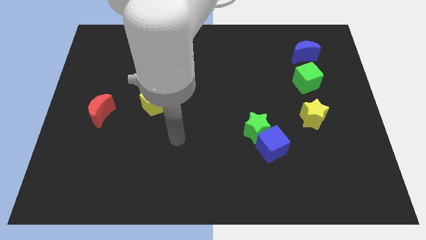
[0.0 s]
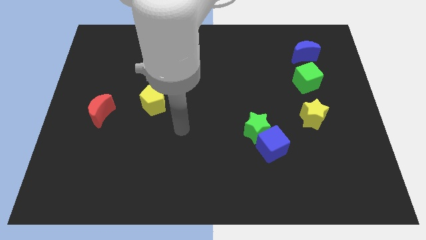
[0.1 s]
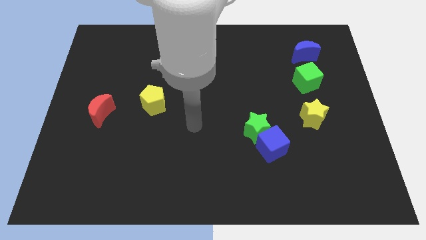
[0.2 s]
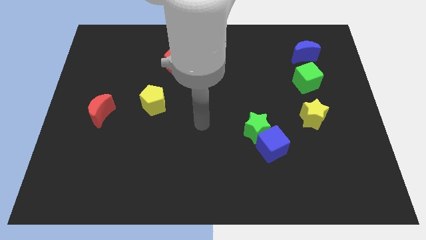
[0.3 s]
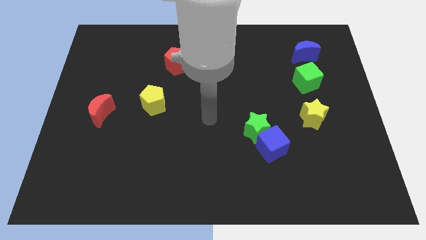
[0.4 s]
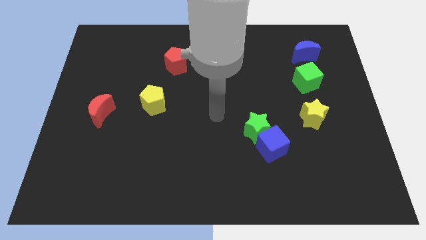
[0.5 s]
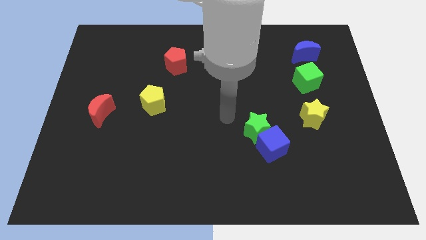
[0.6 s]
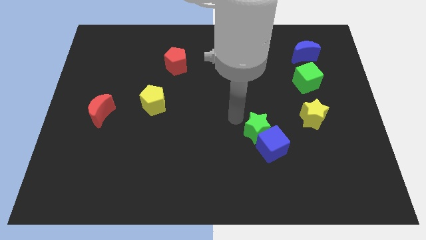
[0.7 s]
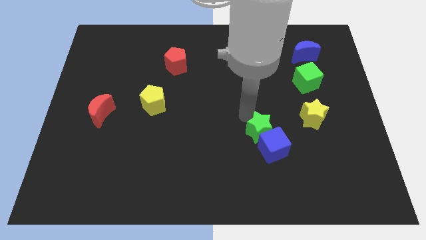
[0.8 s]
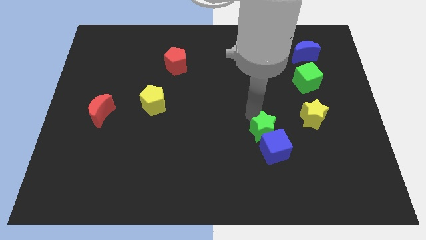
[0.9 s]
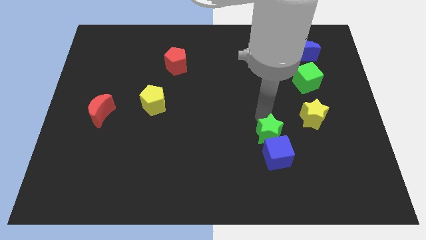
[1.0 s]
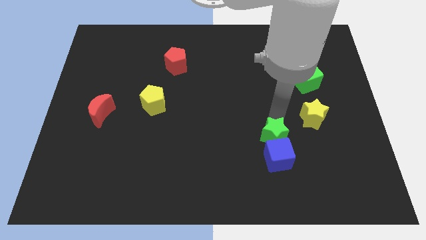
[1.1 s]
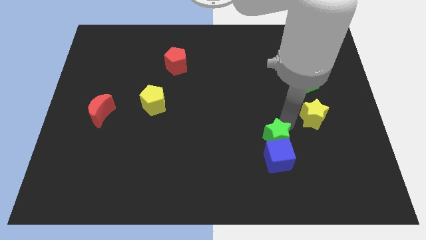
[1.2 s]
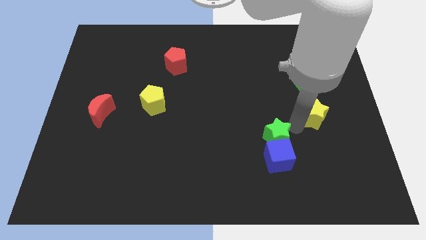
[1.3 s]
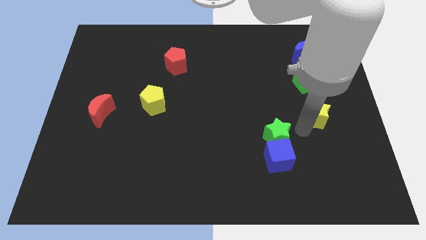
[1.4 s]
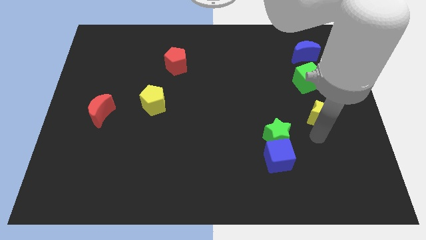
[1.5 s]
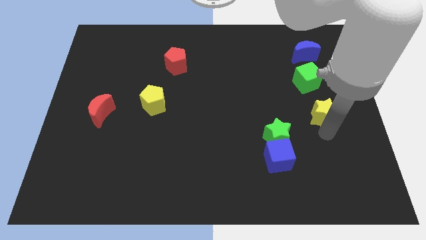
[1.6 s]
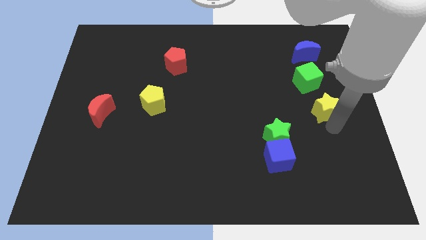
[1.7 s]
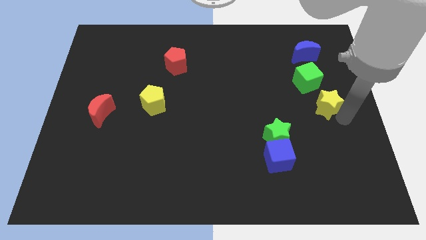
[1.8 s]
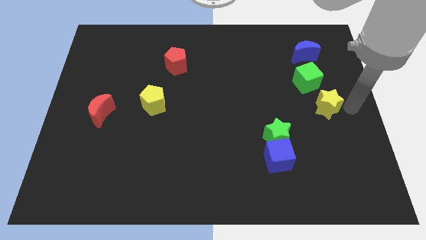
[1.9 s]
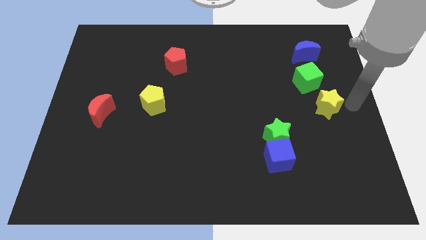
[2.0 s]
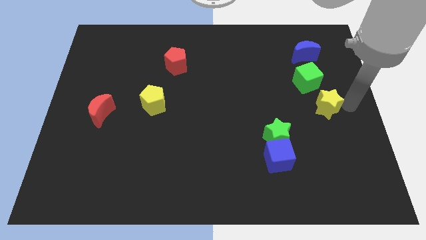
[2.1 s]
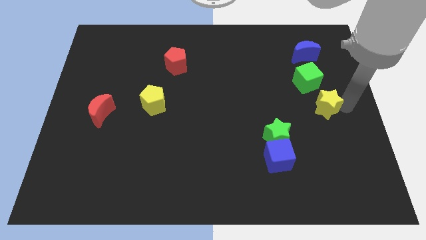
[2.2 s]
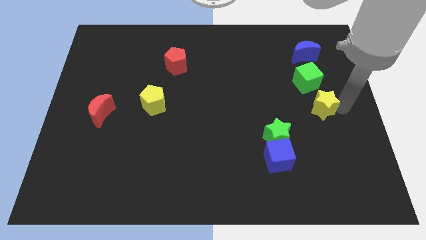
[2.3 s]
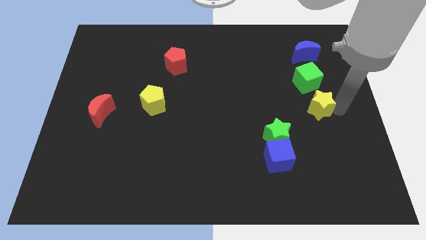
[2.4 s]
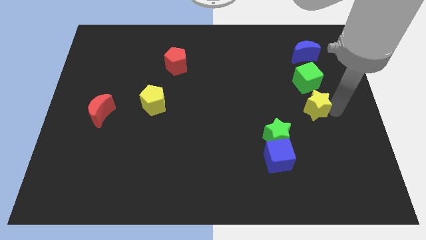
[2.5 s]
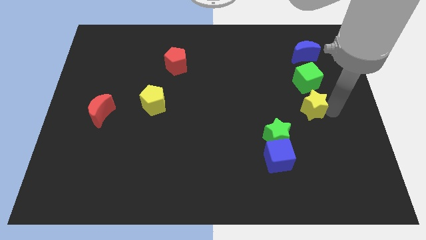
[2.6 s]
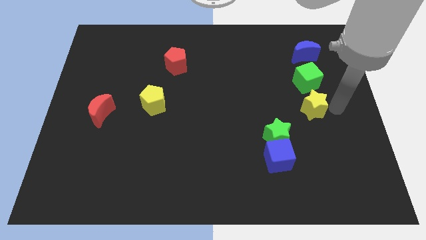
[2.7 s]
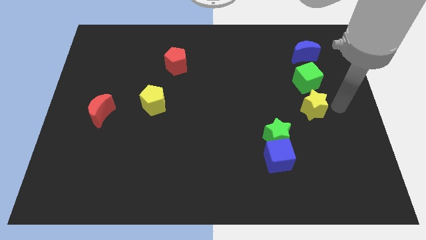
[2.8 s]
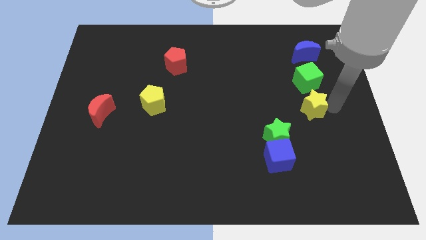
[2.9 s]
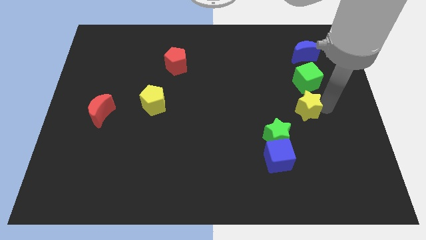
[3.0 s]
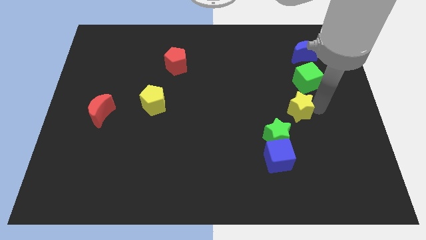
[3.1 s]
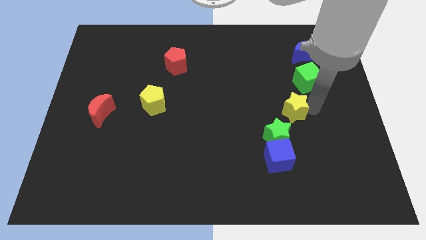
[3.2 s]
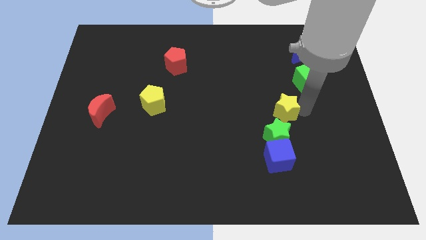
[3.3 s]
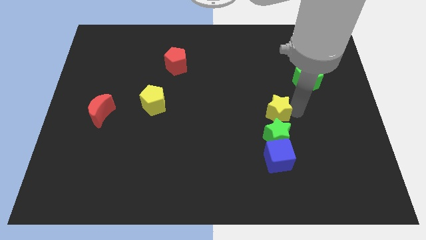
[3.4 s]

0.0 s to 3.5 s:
slightly move the yellow star to the left

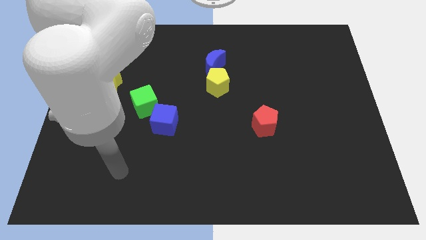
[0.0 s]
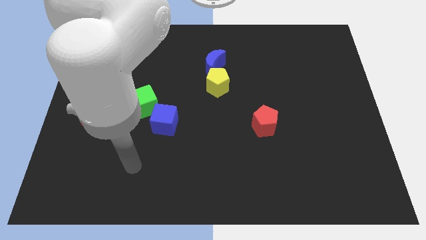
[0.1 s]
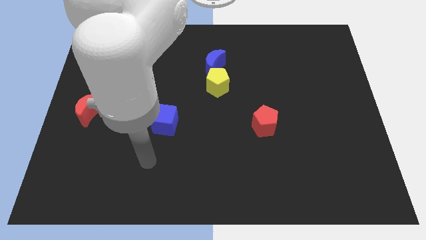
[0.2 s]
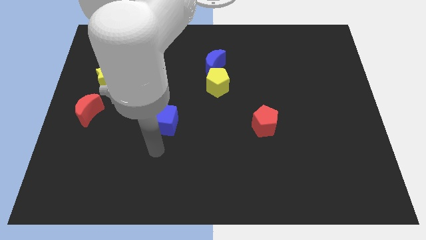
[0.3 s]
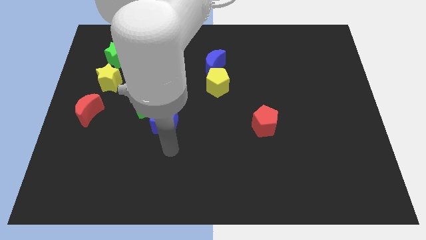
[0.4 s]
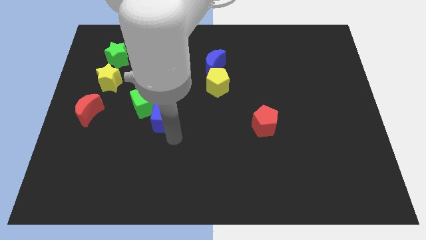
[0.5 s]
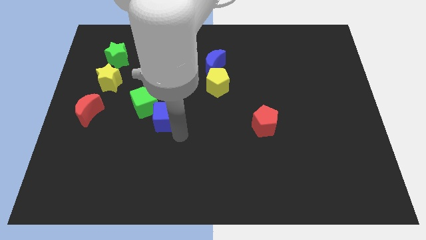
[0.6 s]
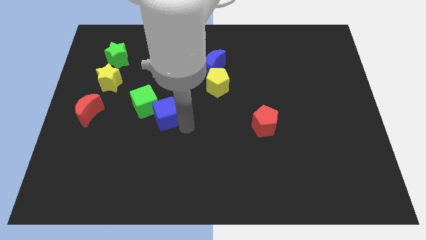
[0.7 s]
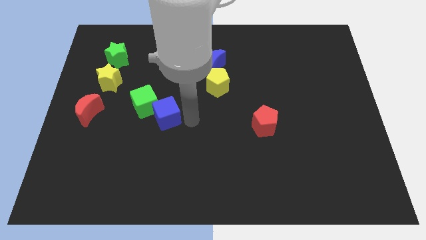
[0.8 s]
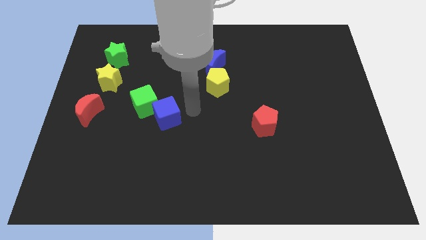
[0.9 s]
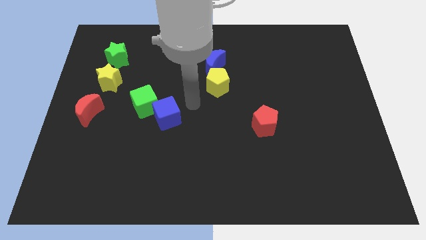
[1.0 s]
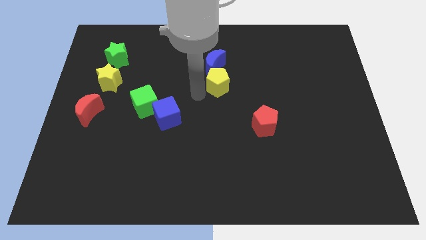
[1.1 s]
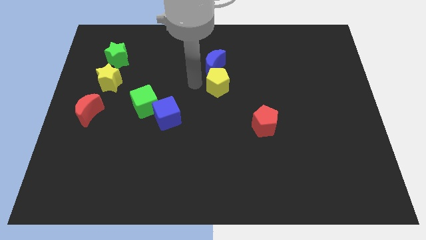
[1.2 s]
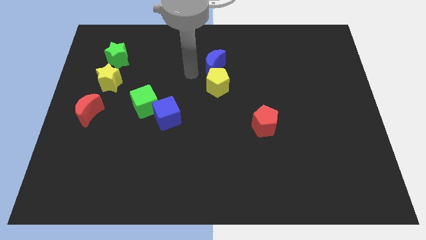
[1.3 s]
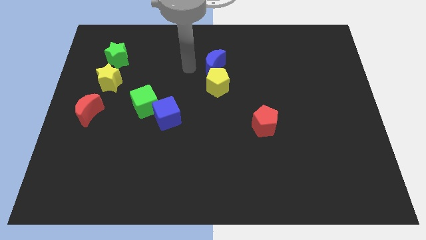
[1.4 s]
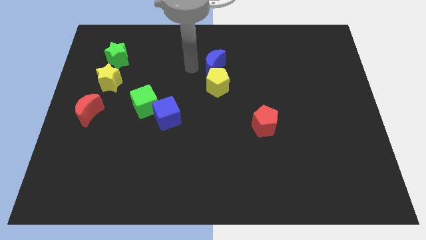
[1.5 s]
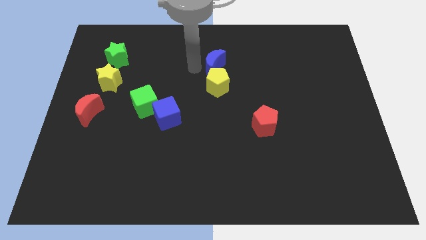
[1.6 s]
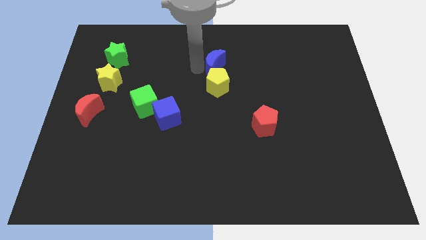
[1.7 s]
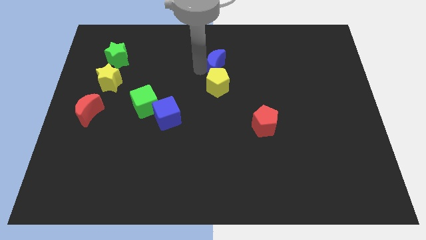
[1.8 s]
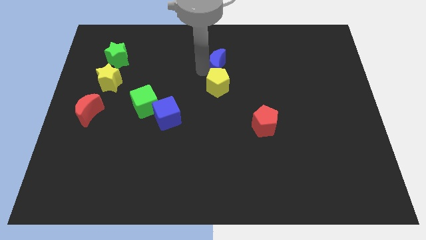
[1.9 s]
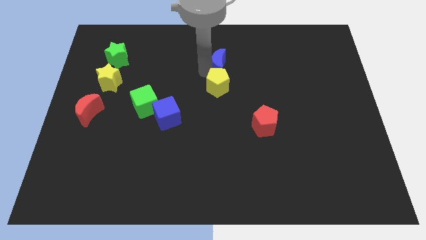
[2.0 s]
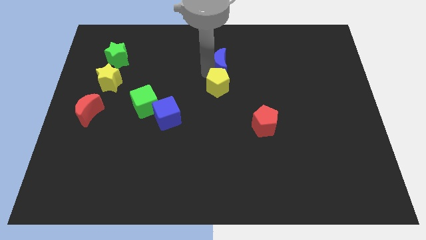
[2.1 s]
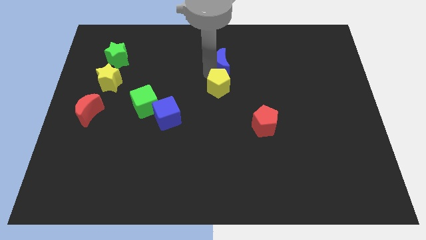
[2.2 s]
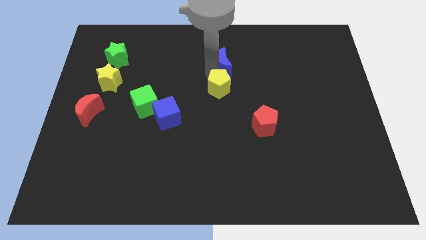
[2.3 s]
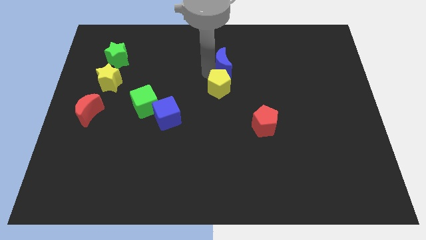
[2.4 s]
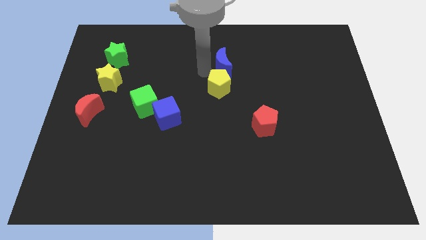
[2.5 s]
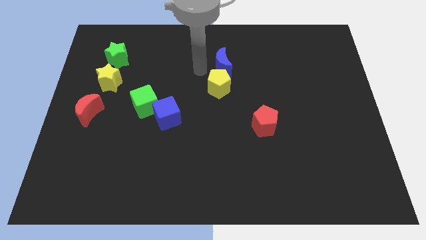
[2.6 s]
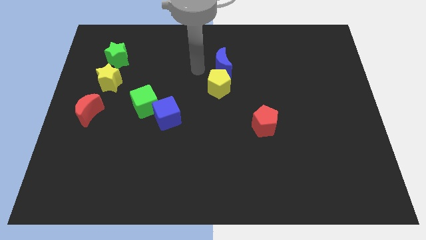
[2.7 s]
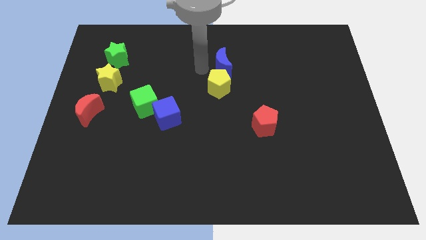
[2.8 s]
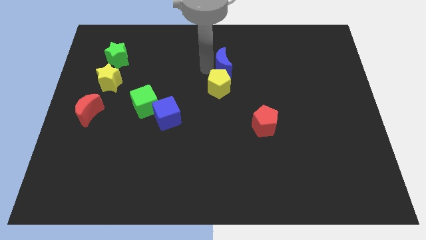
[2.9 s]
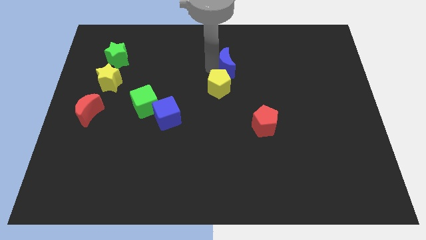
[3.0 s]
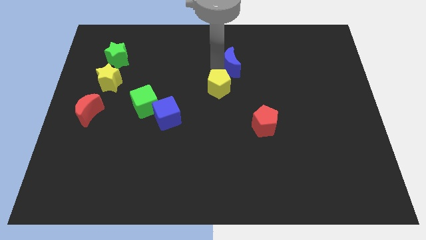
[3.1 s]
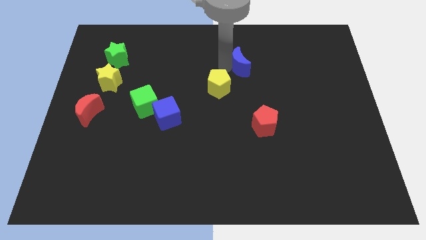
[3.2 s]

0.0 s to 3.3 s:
move the blue moon slightly right

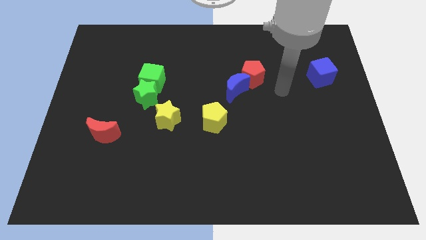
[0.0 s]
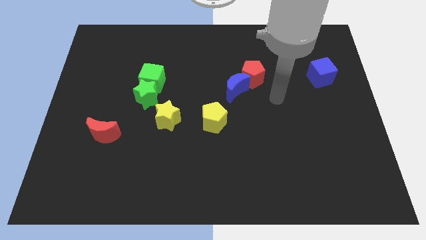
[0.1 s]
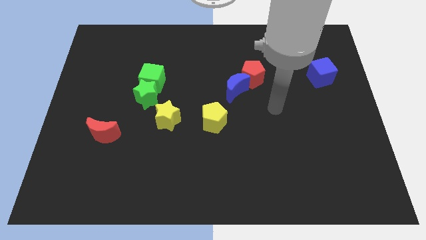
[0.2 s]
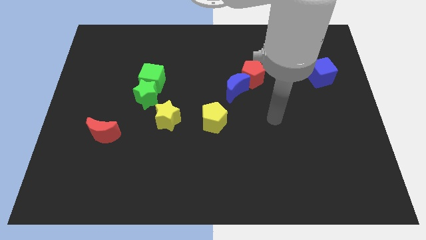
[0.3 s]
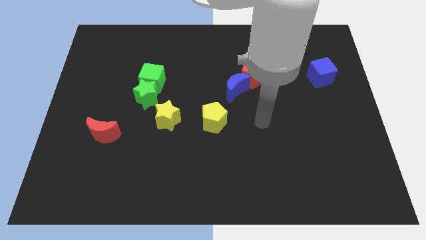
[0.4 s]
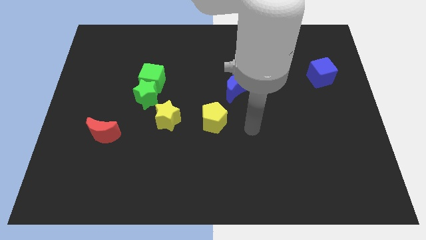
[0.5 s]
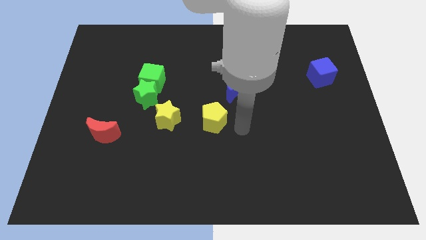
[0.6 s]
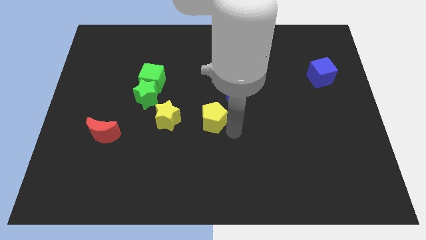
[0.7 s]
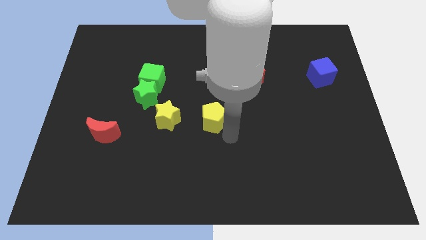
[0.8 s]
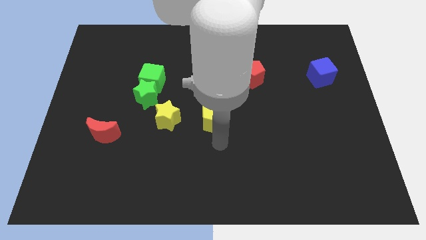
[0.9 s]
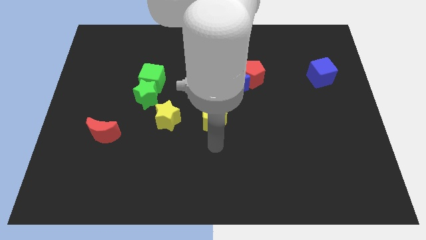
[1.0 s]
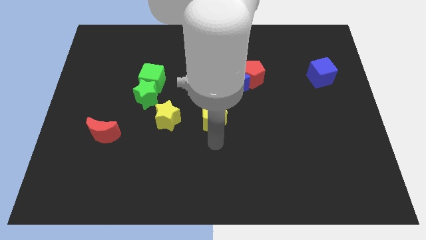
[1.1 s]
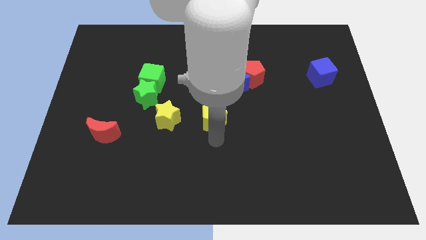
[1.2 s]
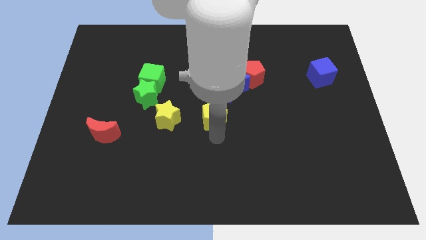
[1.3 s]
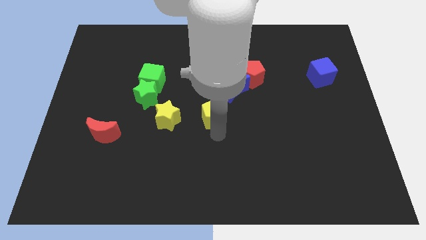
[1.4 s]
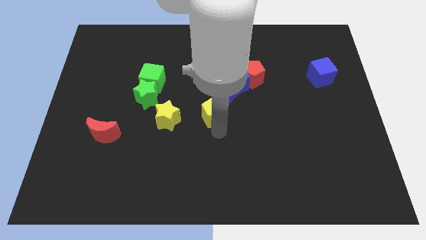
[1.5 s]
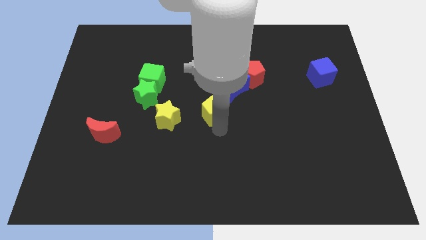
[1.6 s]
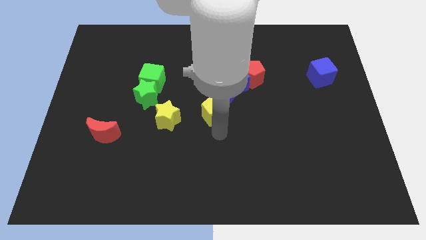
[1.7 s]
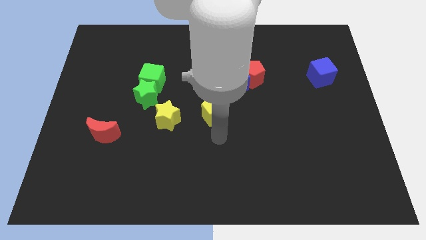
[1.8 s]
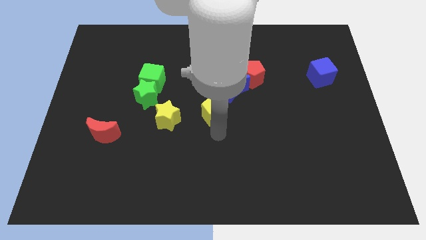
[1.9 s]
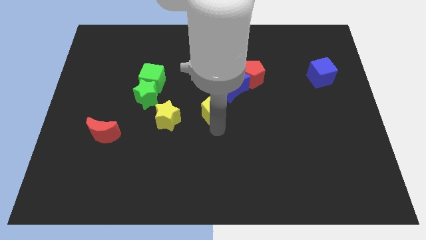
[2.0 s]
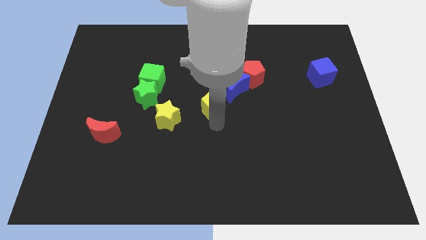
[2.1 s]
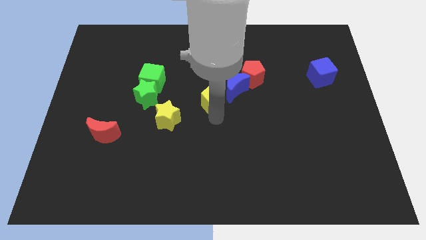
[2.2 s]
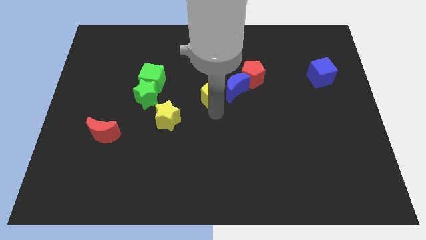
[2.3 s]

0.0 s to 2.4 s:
move the yellow pentagon up somewhat
